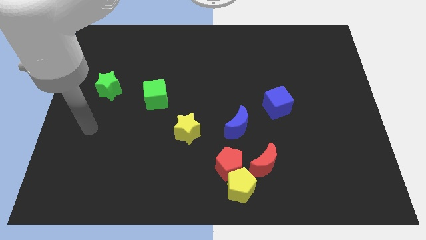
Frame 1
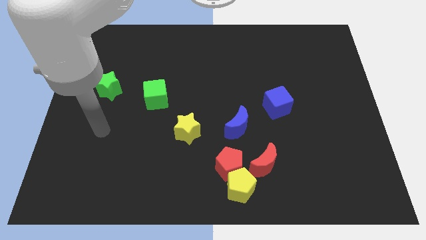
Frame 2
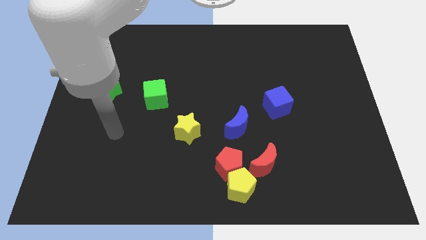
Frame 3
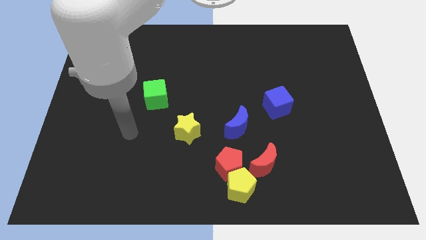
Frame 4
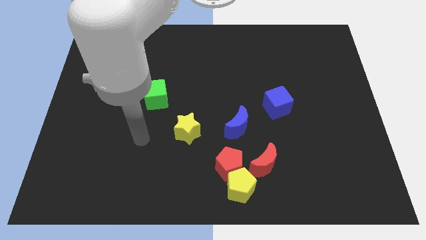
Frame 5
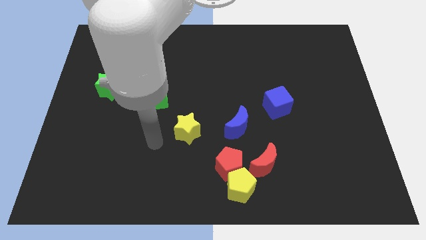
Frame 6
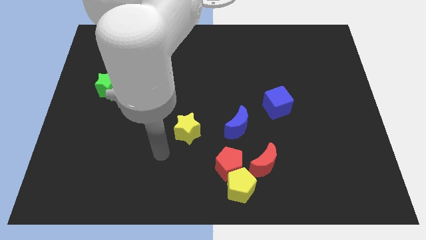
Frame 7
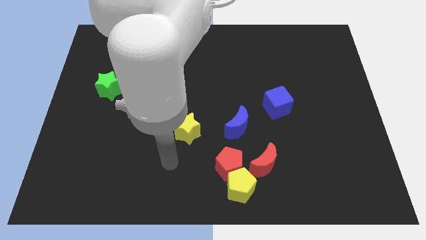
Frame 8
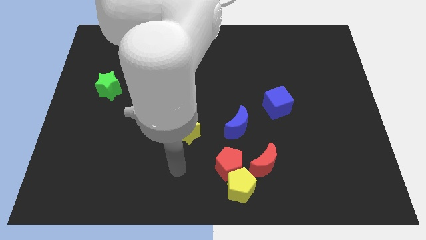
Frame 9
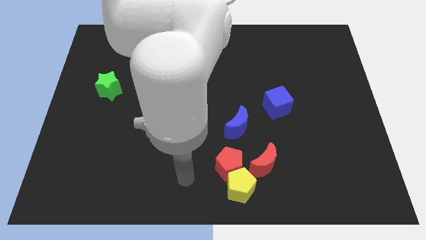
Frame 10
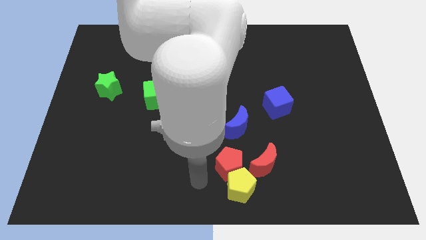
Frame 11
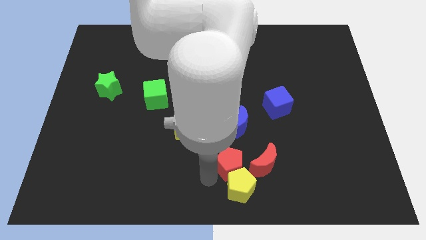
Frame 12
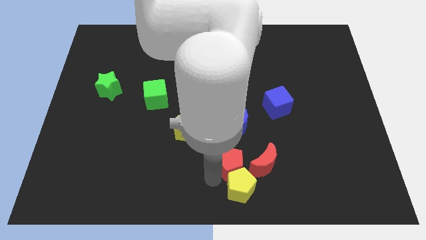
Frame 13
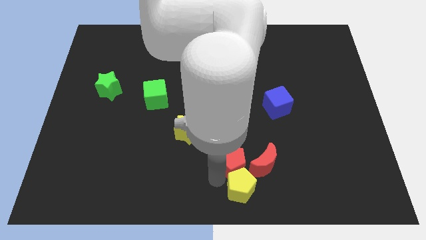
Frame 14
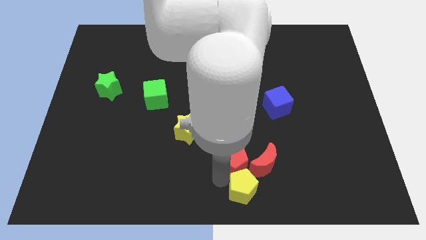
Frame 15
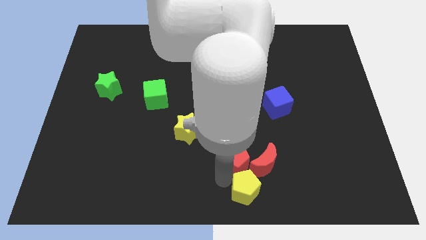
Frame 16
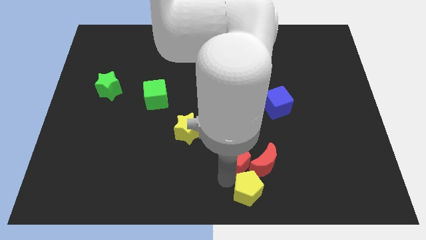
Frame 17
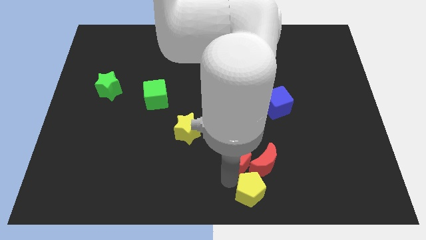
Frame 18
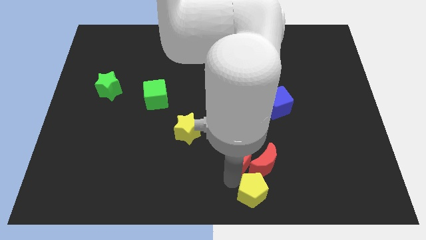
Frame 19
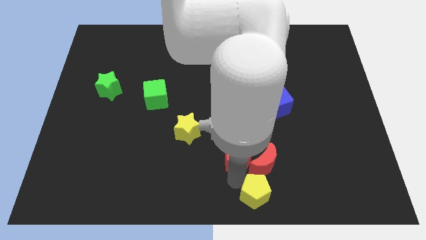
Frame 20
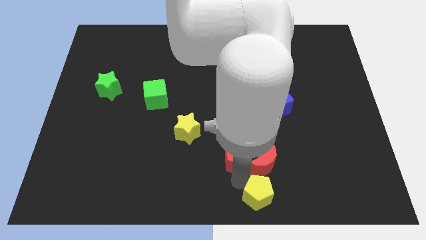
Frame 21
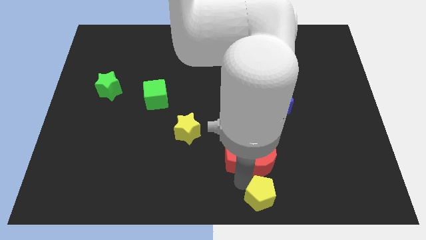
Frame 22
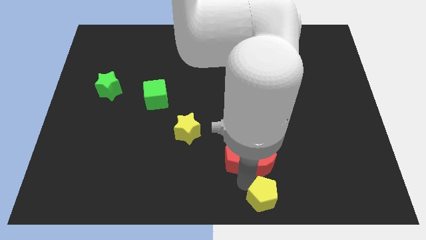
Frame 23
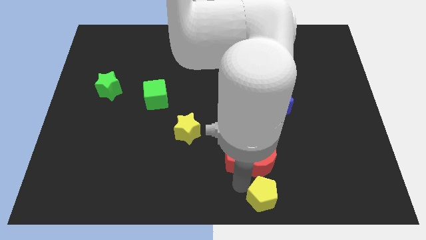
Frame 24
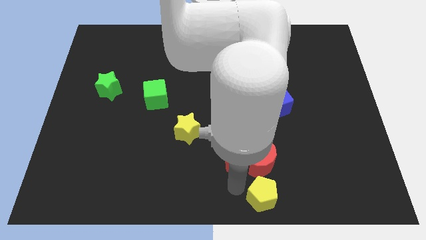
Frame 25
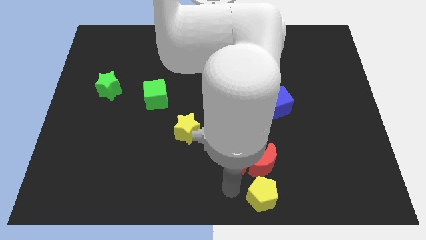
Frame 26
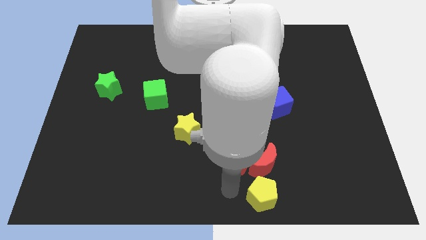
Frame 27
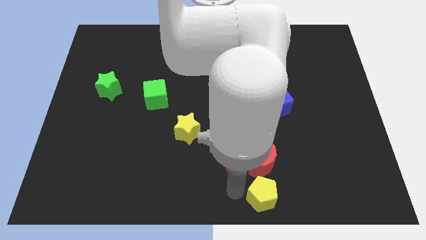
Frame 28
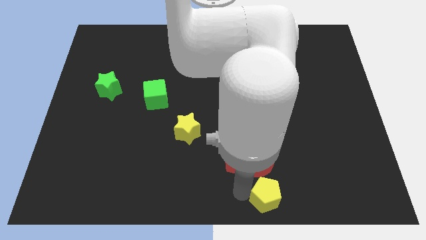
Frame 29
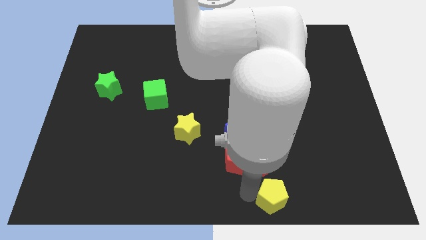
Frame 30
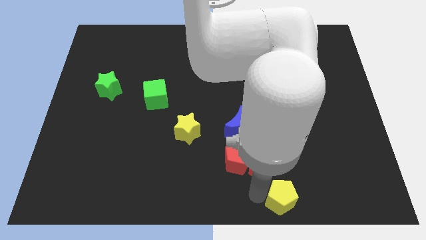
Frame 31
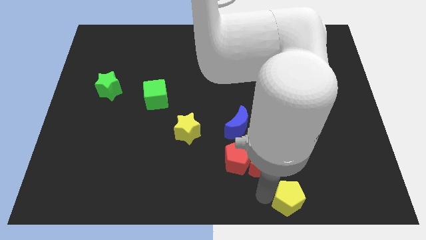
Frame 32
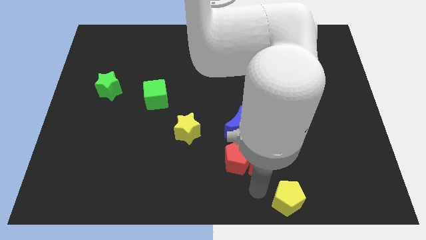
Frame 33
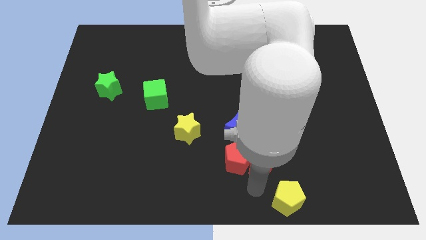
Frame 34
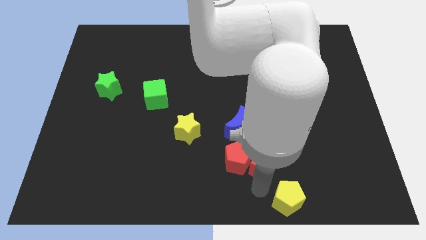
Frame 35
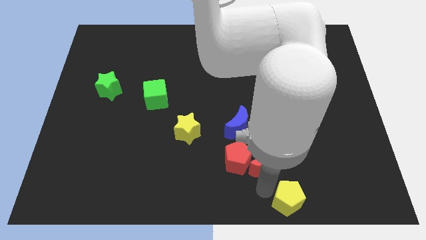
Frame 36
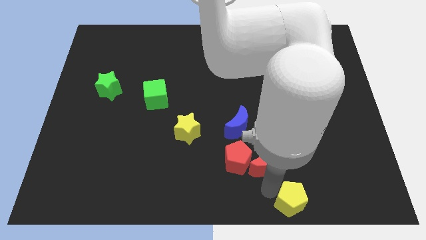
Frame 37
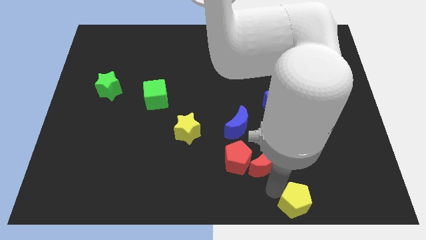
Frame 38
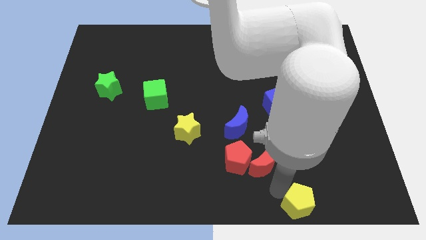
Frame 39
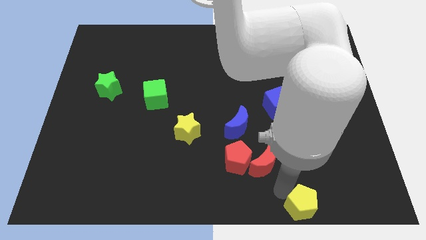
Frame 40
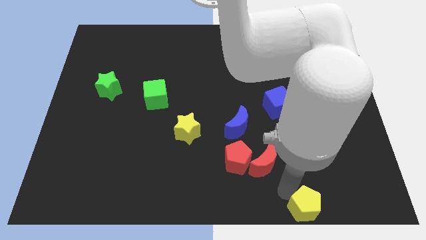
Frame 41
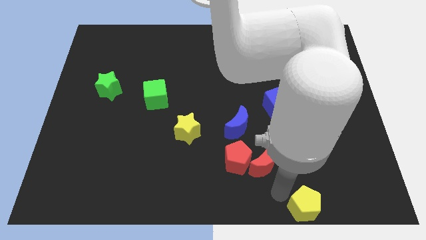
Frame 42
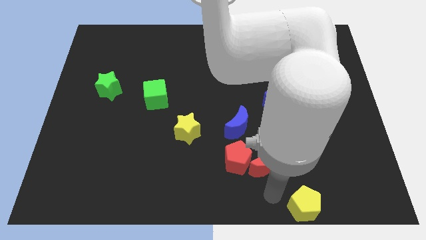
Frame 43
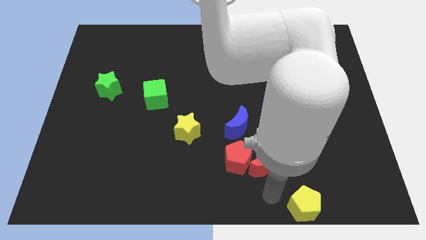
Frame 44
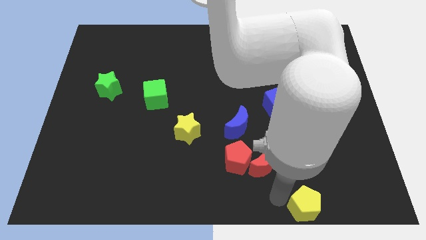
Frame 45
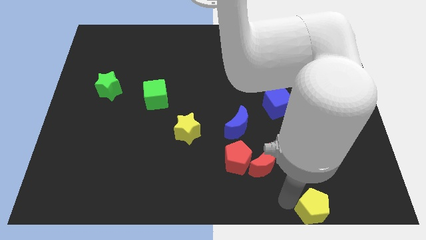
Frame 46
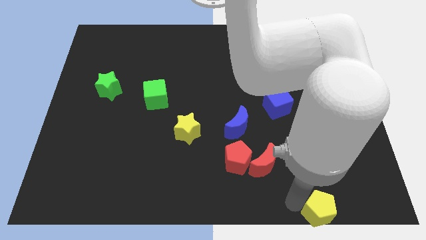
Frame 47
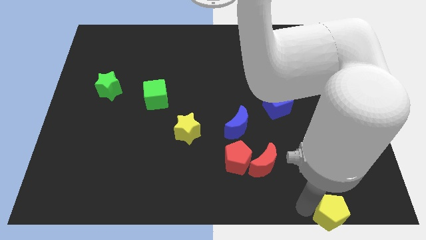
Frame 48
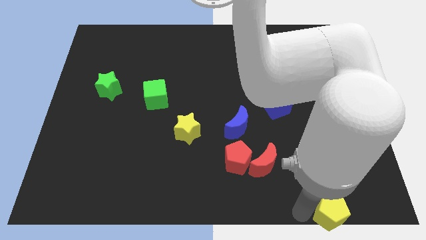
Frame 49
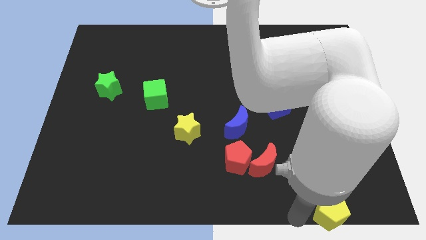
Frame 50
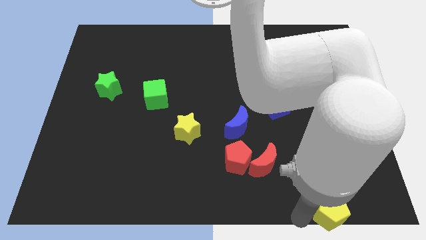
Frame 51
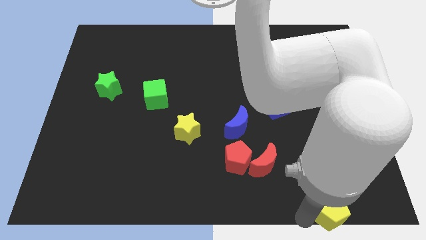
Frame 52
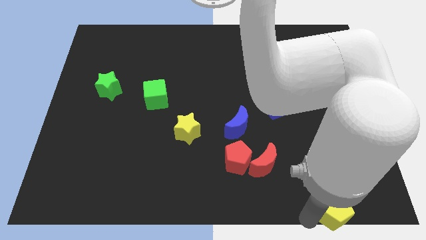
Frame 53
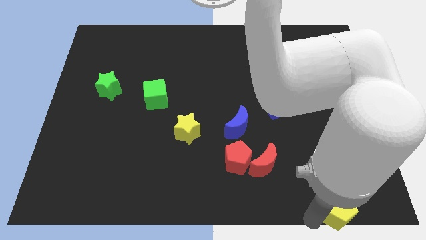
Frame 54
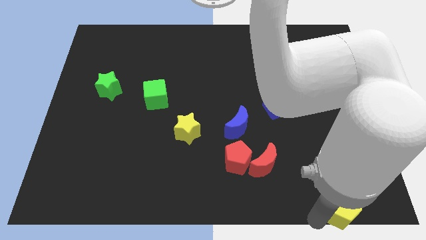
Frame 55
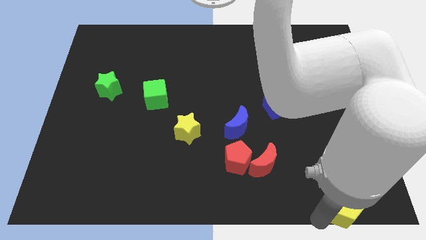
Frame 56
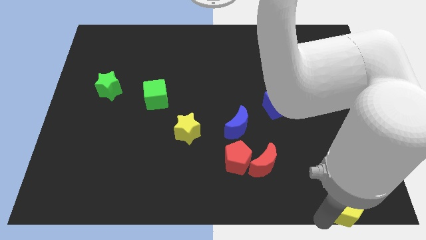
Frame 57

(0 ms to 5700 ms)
move the yellow pentagon to the bottom right corner
